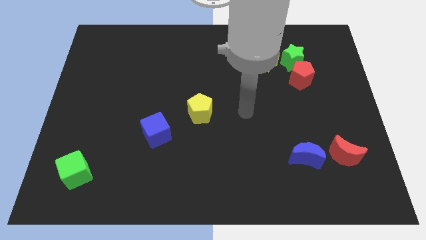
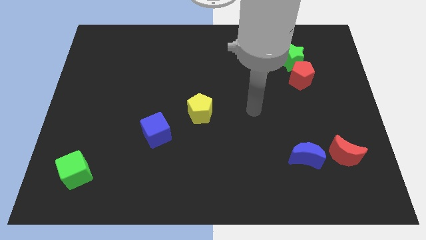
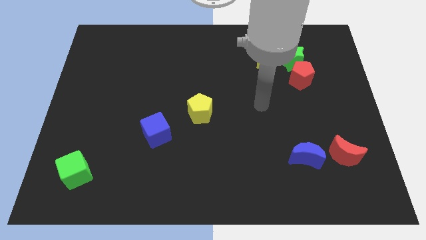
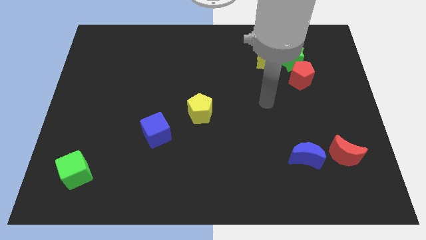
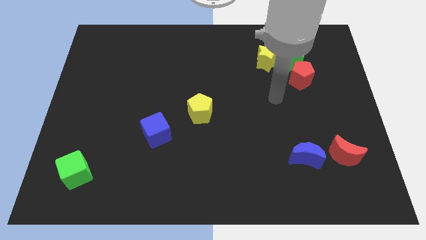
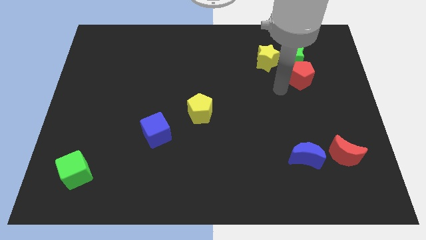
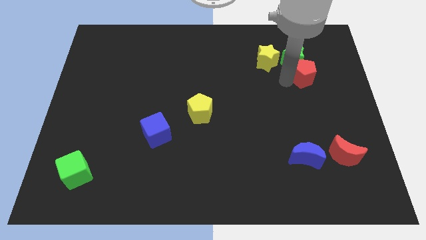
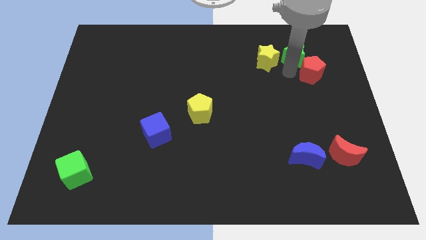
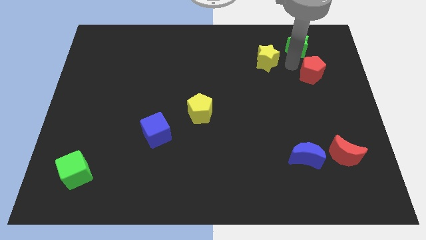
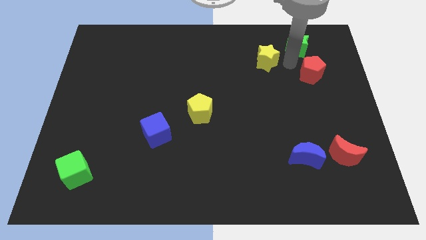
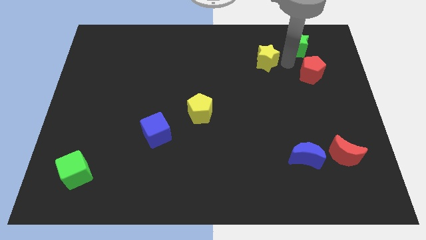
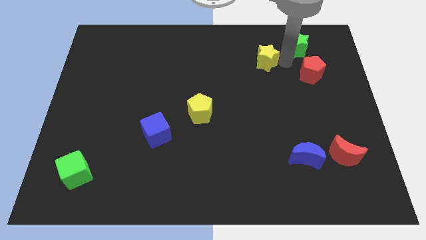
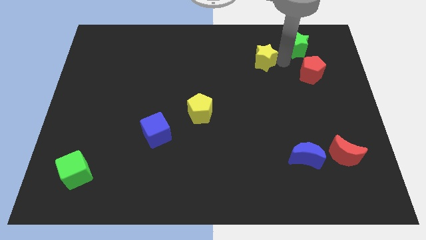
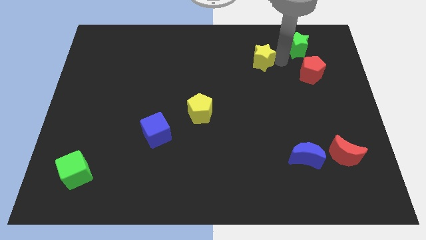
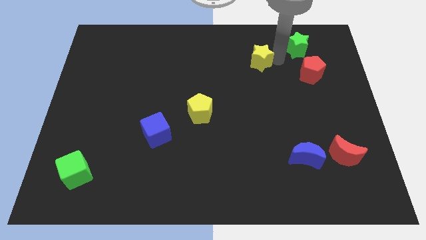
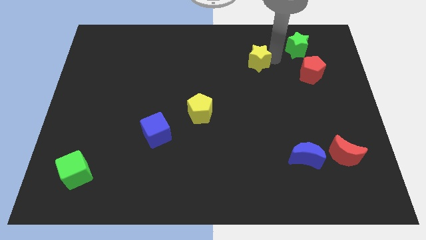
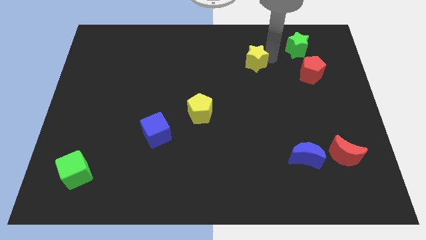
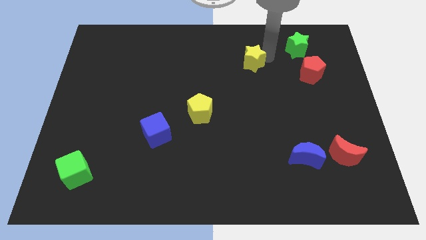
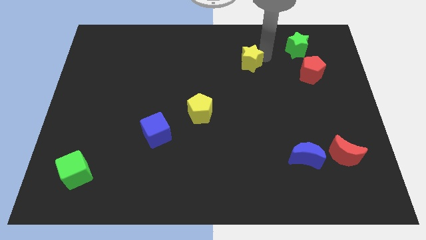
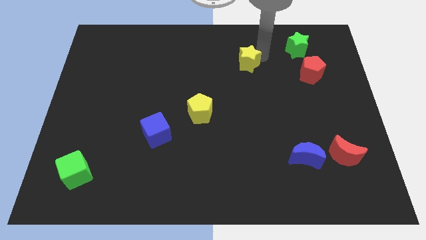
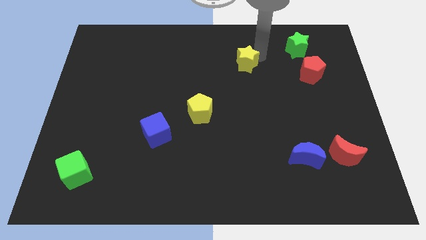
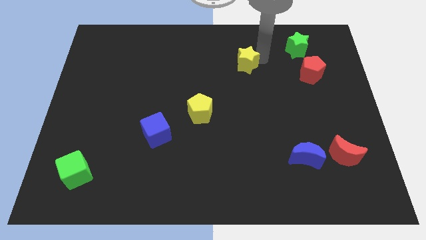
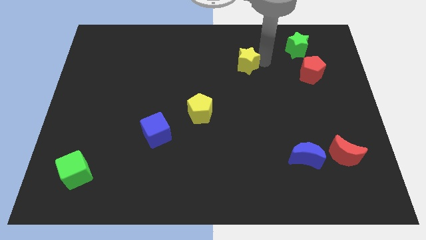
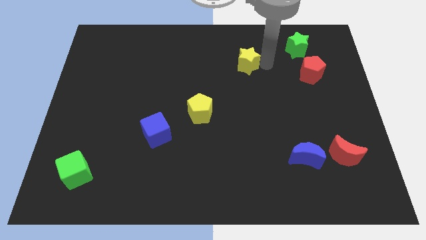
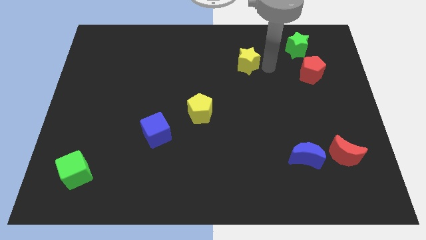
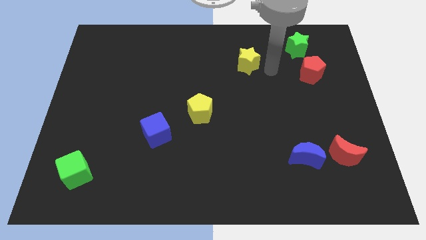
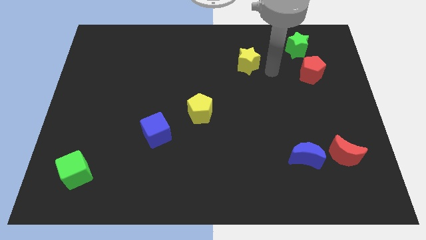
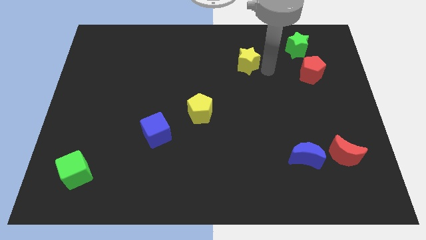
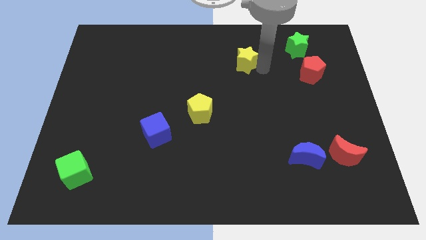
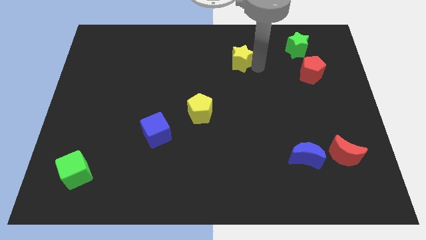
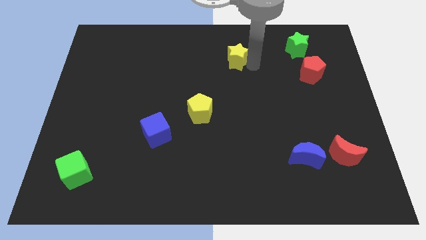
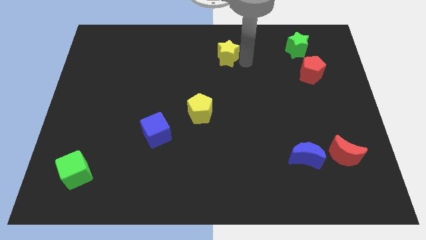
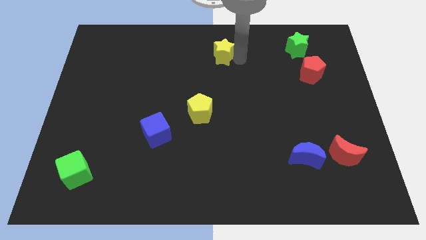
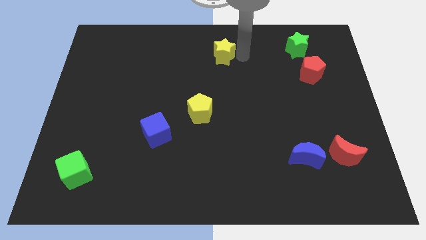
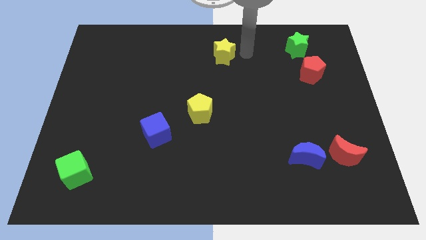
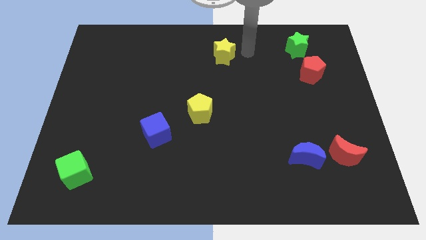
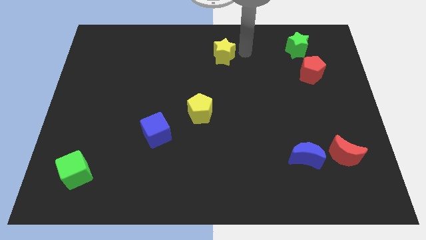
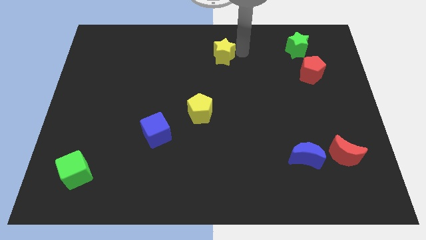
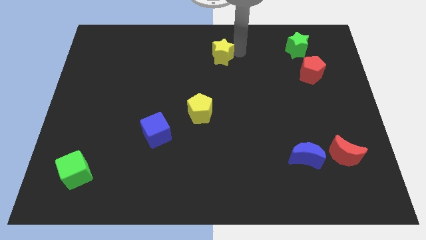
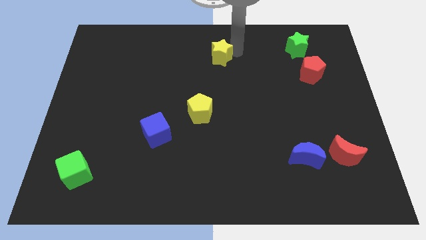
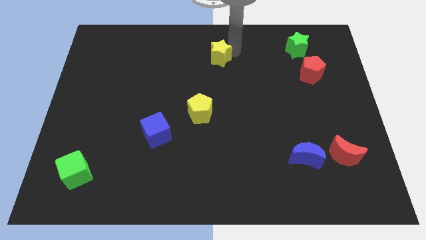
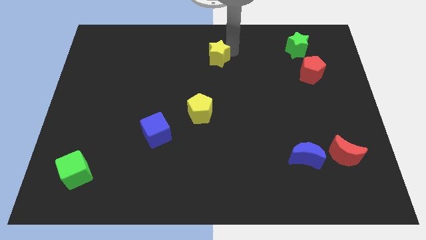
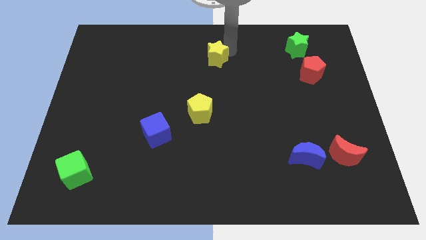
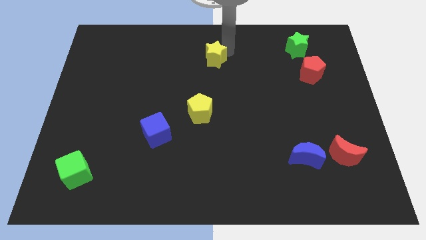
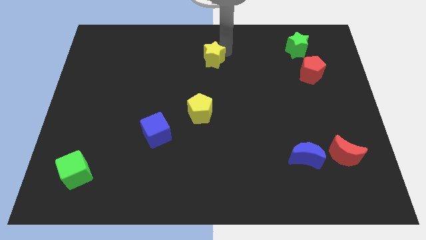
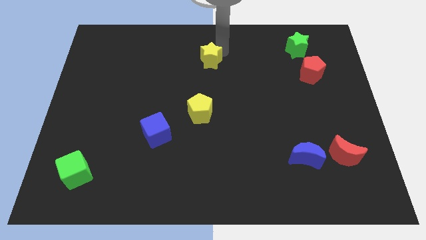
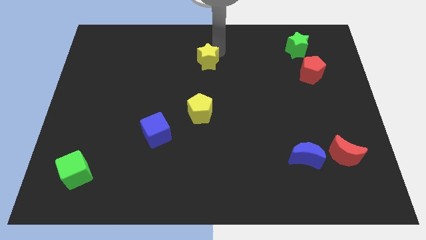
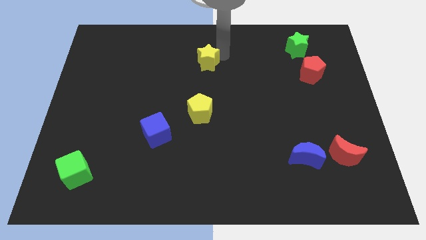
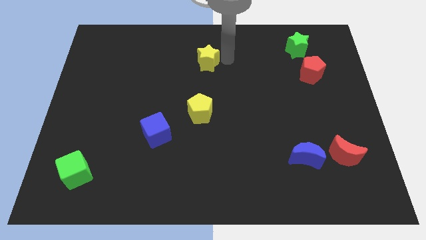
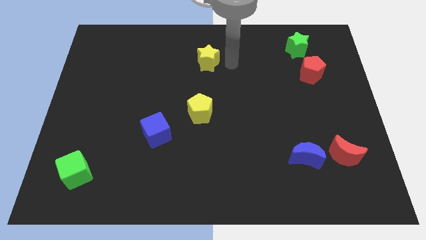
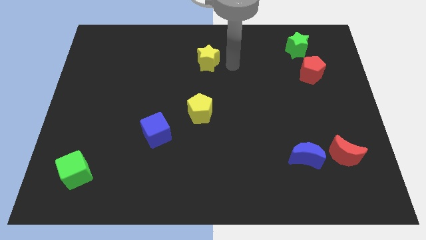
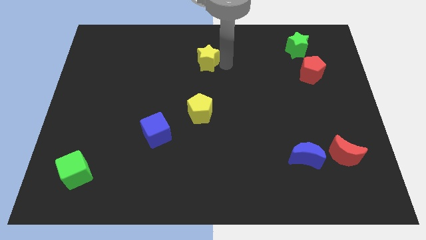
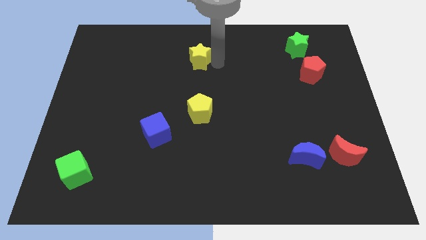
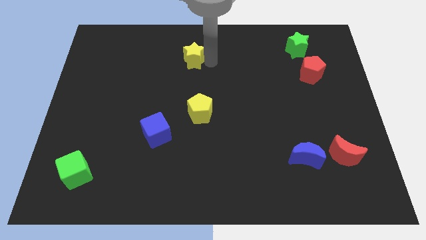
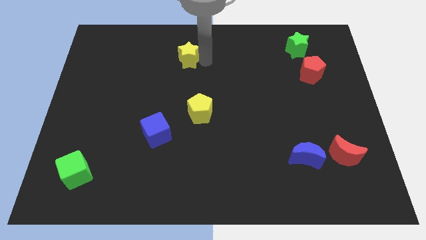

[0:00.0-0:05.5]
slide the yellow star to the left

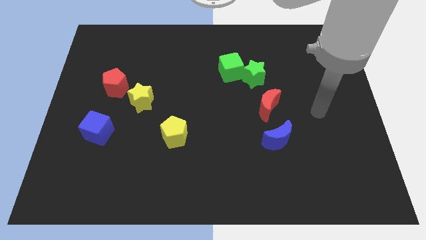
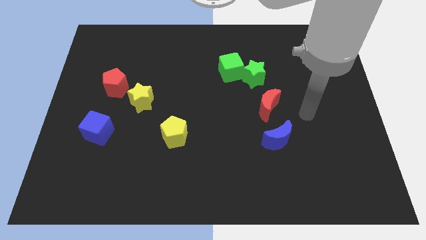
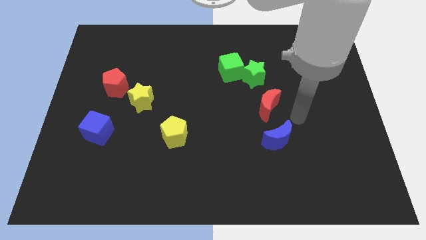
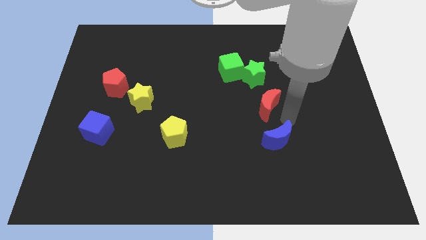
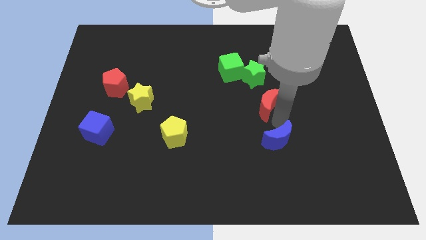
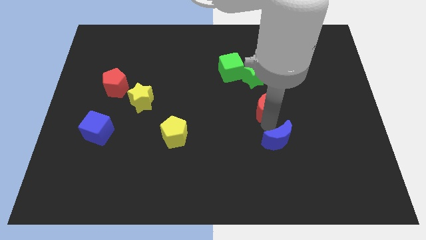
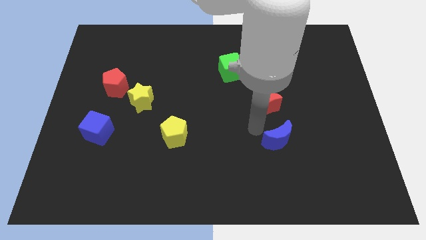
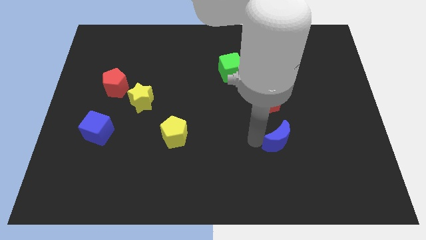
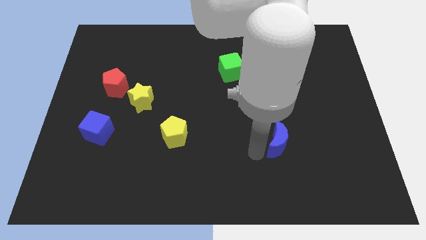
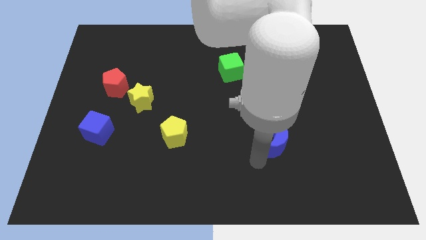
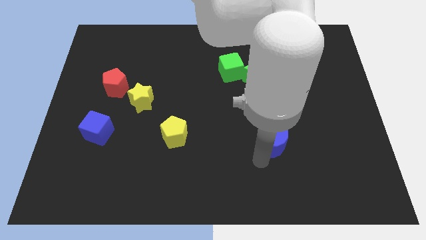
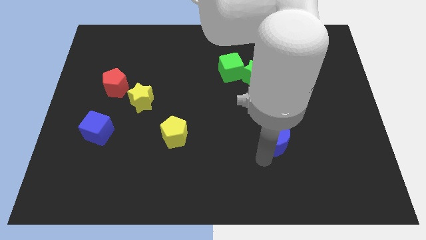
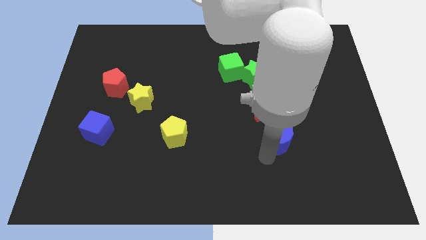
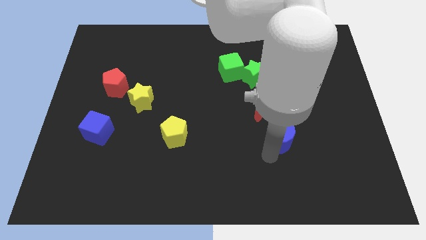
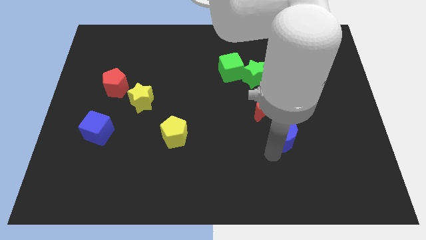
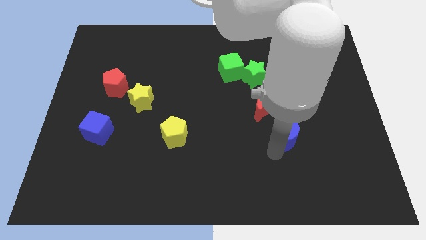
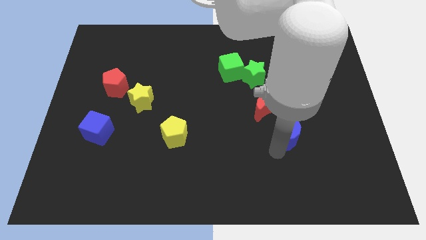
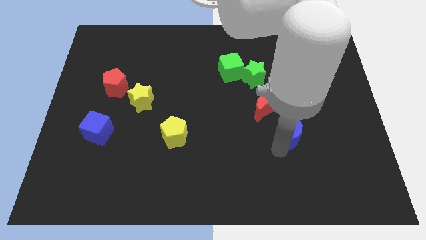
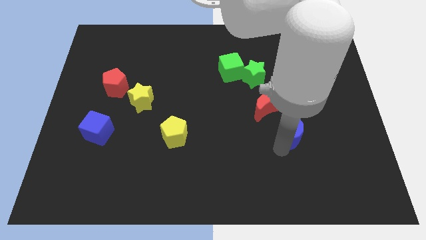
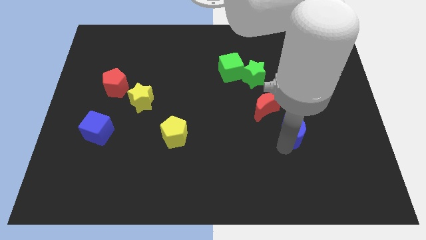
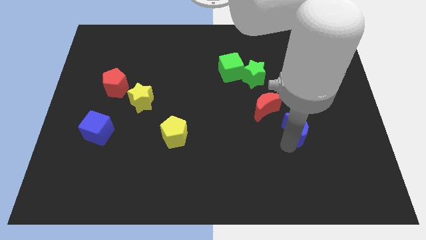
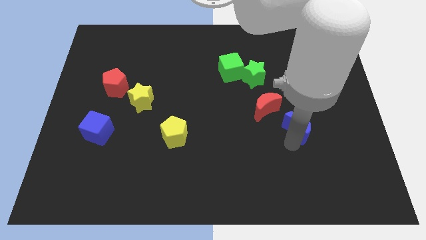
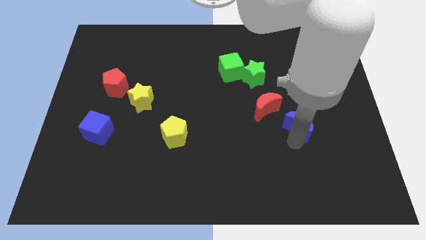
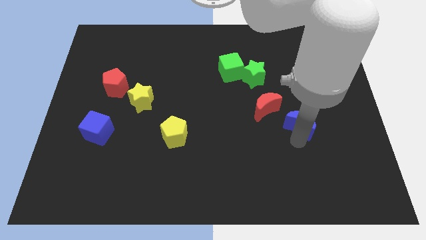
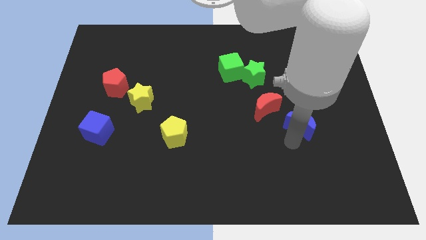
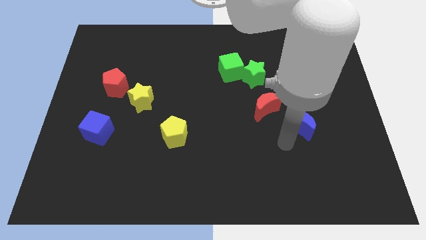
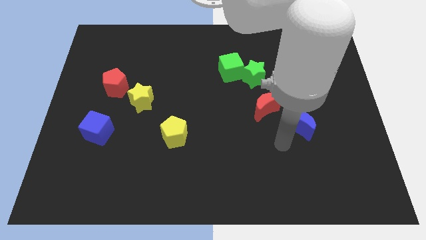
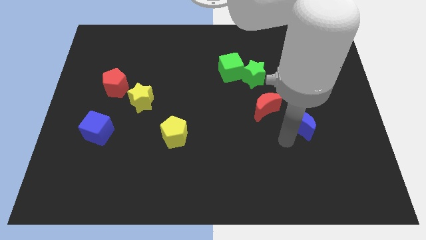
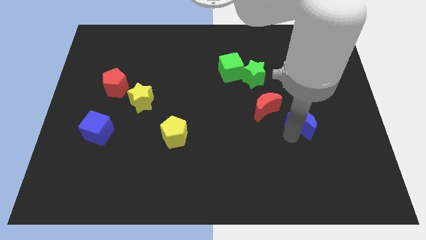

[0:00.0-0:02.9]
move the blue moon somewhat upwards and right diagonally
